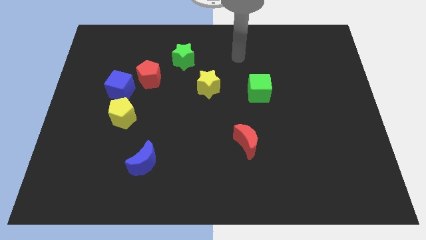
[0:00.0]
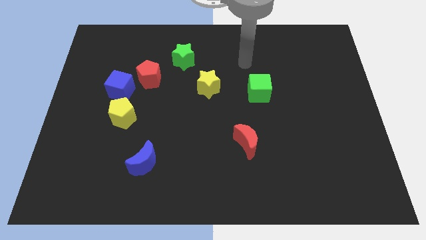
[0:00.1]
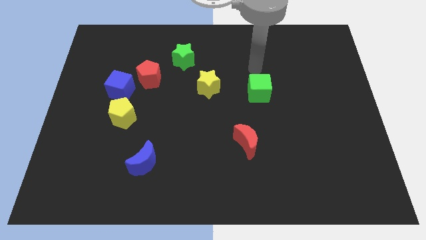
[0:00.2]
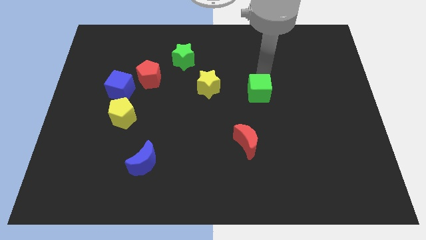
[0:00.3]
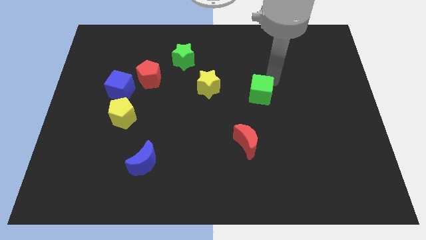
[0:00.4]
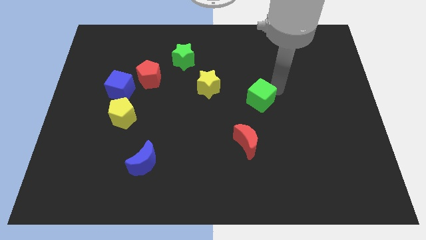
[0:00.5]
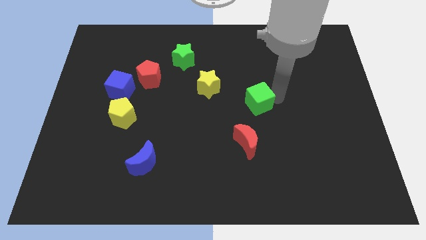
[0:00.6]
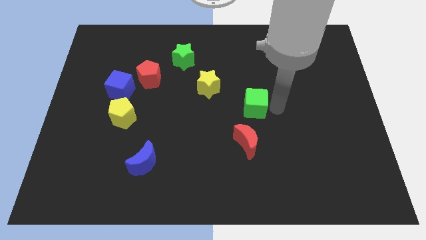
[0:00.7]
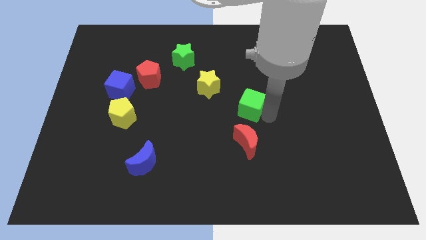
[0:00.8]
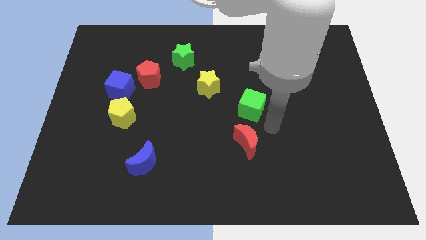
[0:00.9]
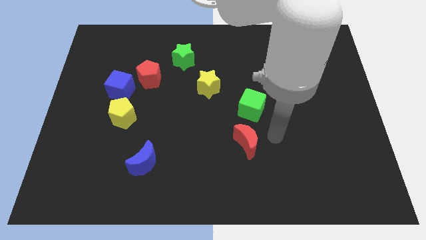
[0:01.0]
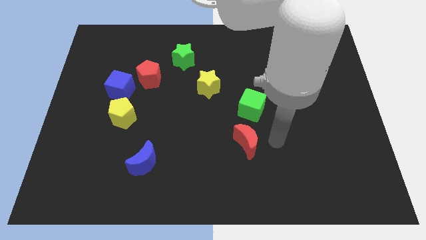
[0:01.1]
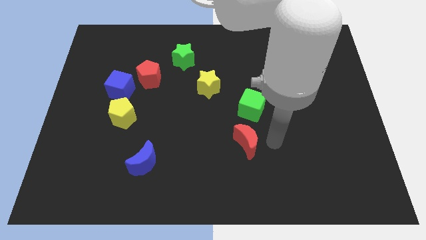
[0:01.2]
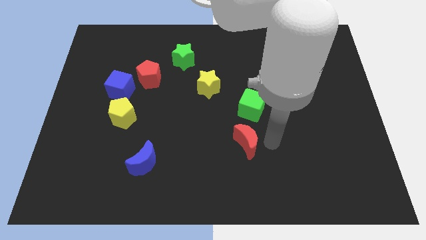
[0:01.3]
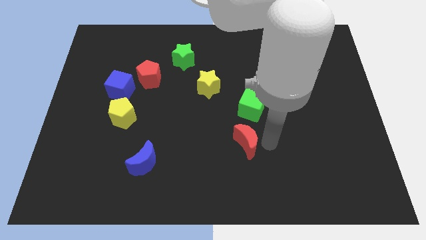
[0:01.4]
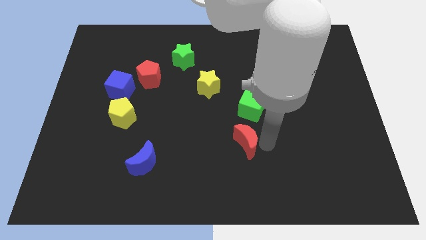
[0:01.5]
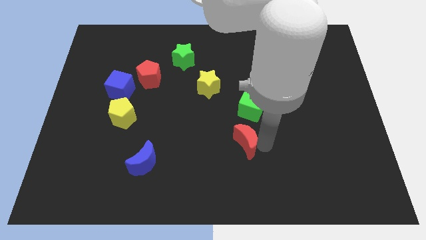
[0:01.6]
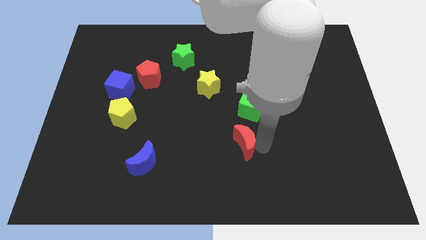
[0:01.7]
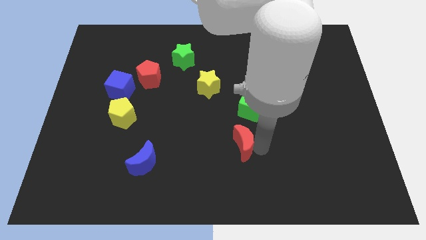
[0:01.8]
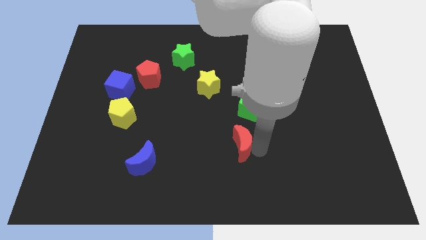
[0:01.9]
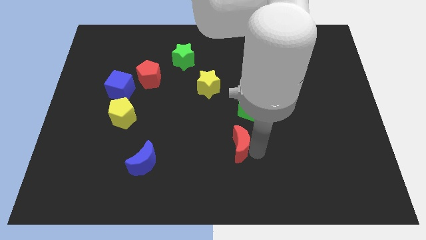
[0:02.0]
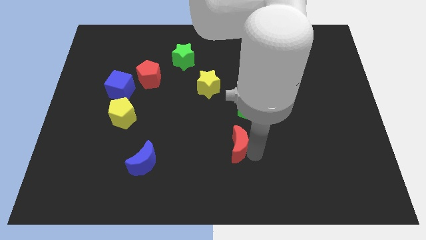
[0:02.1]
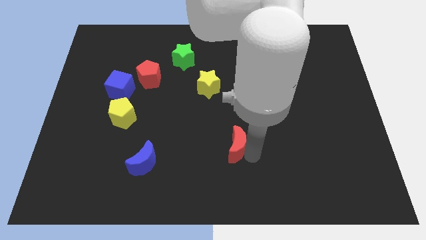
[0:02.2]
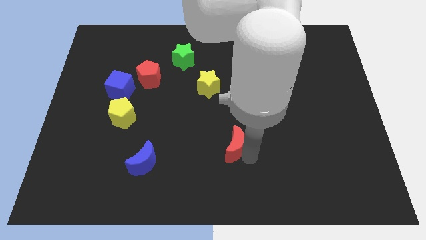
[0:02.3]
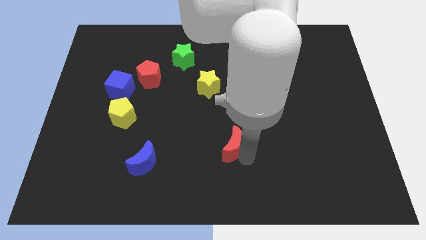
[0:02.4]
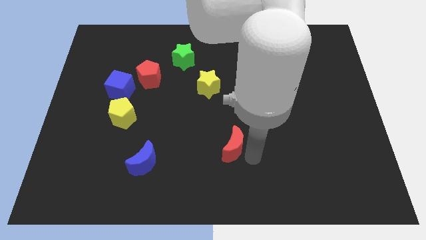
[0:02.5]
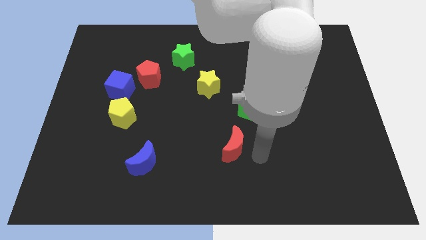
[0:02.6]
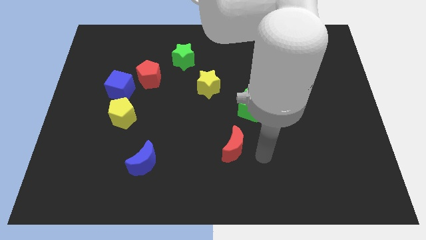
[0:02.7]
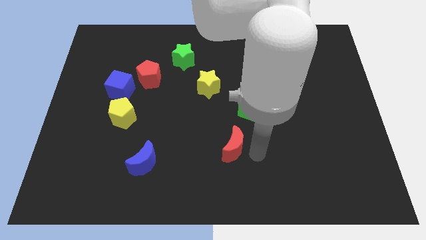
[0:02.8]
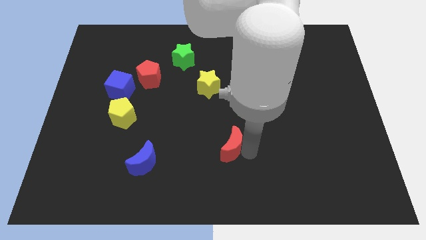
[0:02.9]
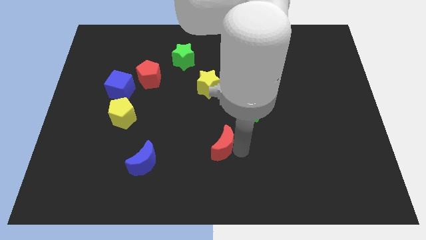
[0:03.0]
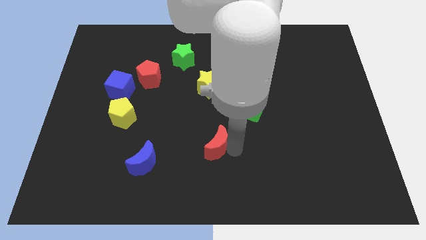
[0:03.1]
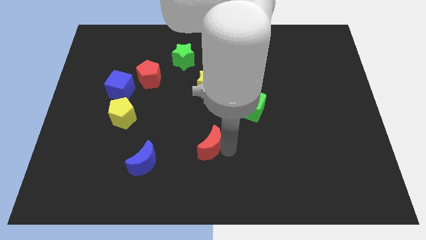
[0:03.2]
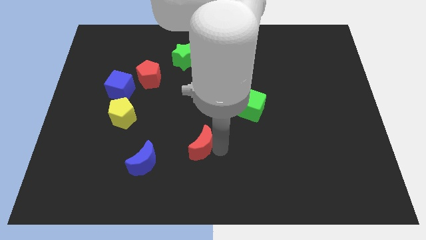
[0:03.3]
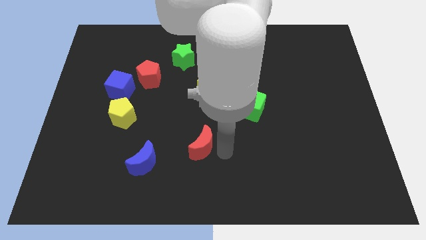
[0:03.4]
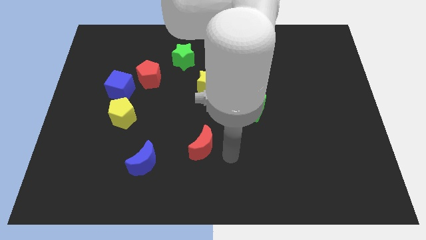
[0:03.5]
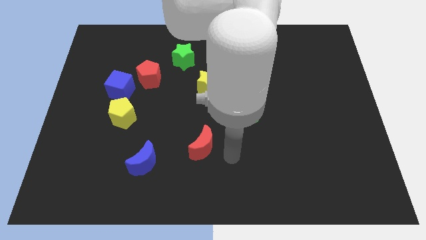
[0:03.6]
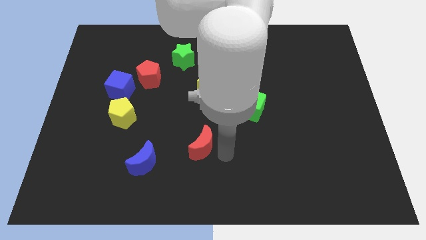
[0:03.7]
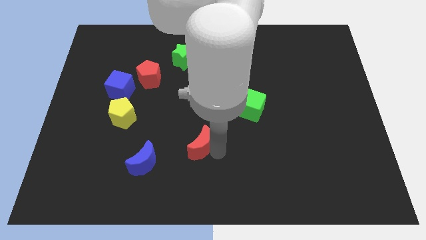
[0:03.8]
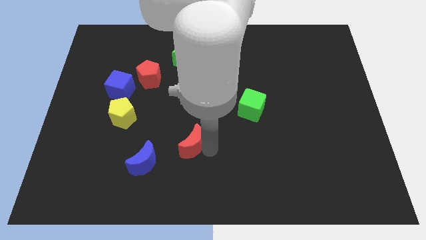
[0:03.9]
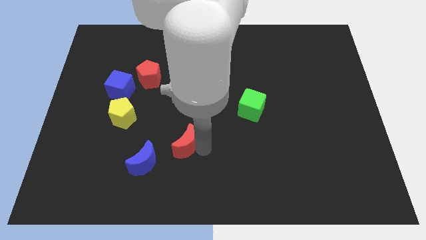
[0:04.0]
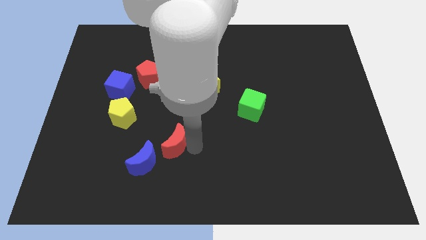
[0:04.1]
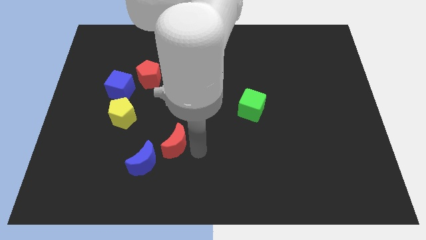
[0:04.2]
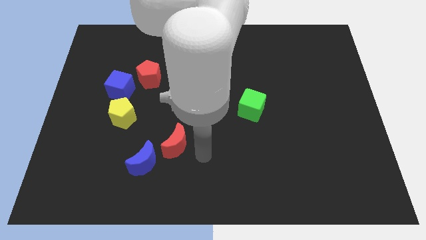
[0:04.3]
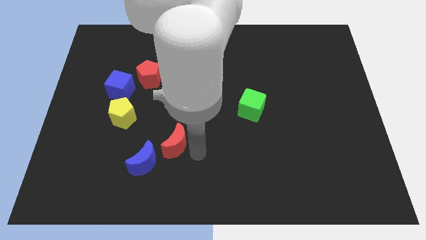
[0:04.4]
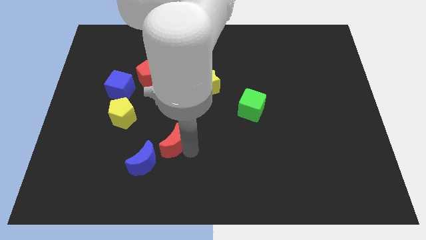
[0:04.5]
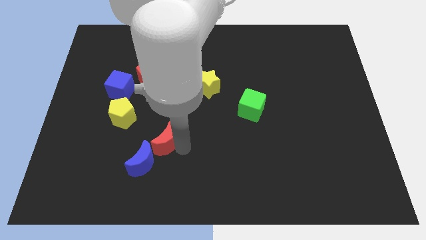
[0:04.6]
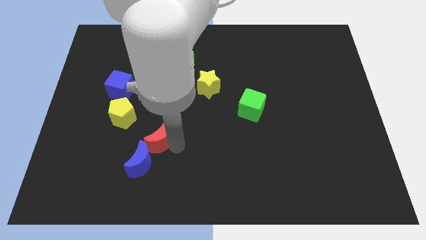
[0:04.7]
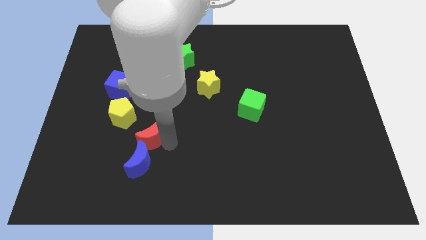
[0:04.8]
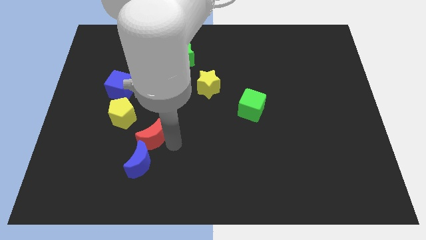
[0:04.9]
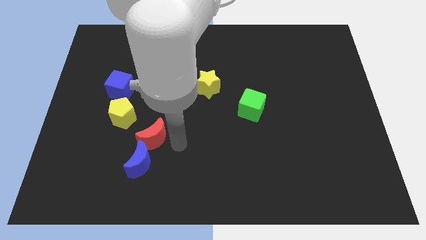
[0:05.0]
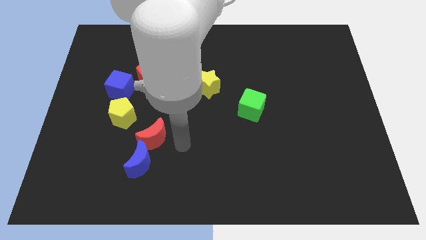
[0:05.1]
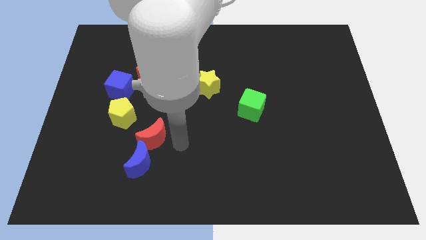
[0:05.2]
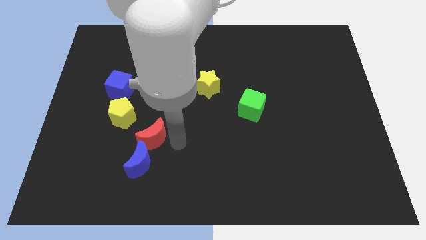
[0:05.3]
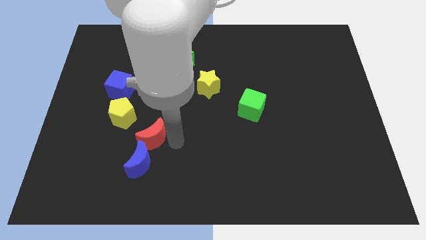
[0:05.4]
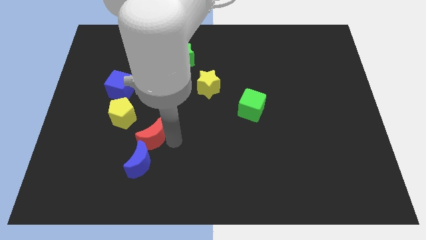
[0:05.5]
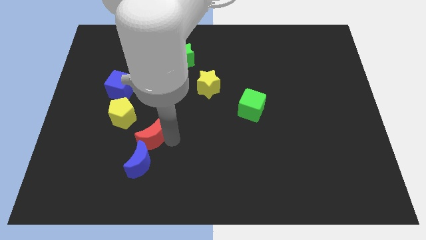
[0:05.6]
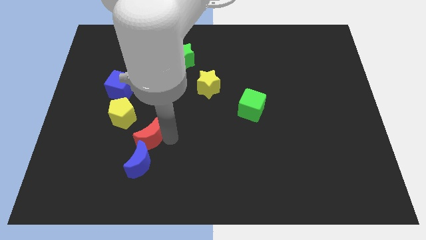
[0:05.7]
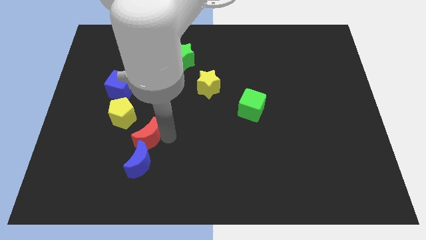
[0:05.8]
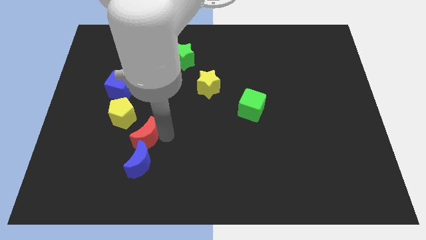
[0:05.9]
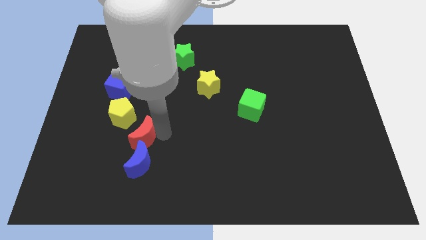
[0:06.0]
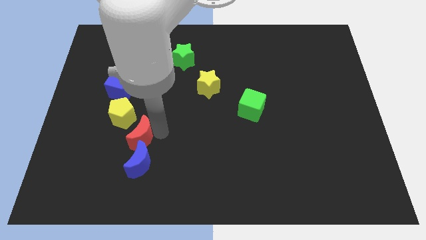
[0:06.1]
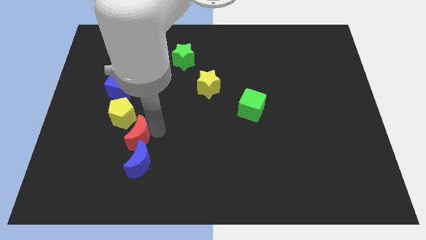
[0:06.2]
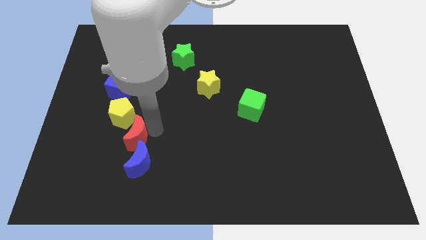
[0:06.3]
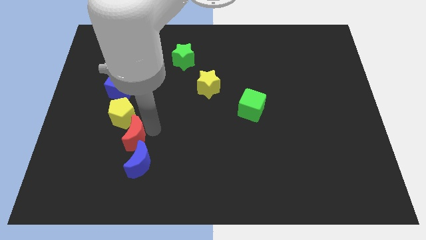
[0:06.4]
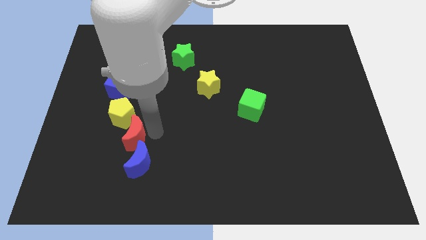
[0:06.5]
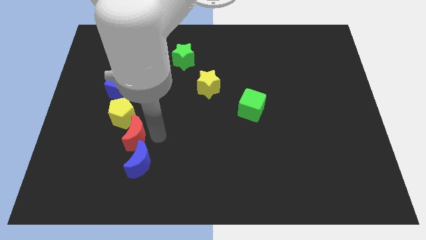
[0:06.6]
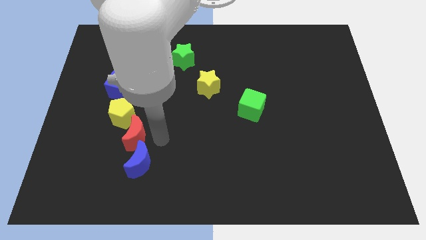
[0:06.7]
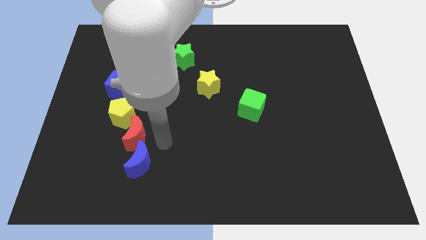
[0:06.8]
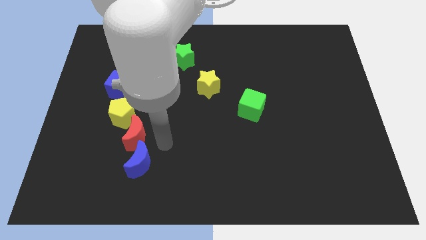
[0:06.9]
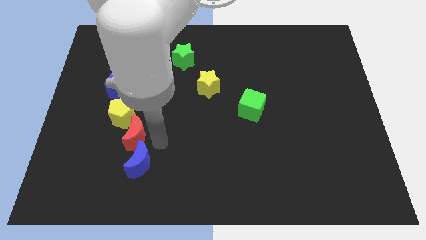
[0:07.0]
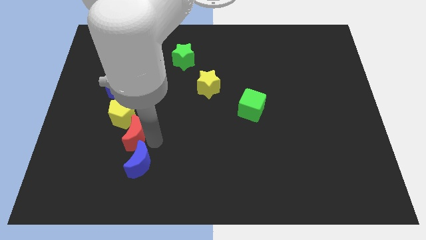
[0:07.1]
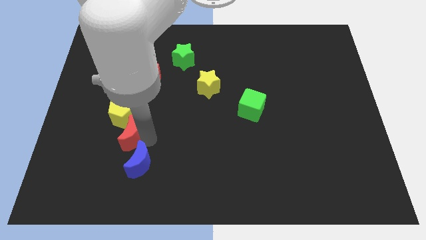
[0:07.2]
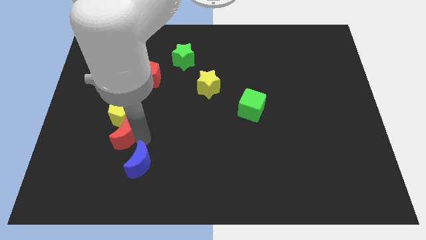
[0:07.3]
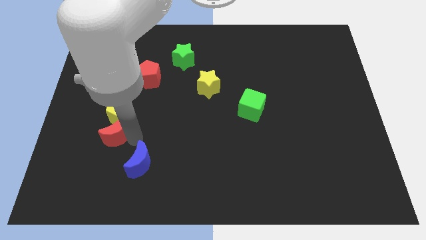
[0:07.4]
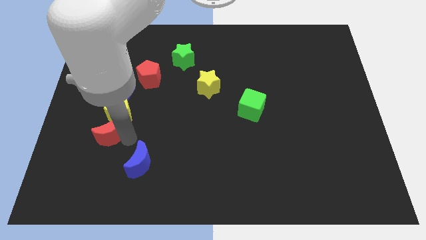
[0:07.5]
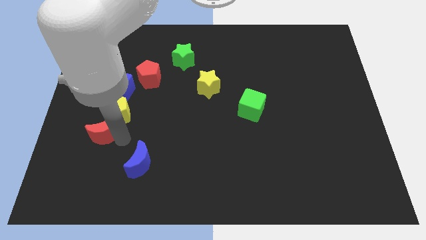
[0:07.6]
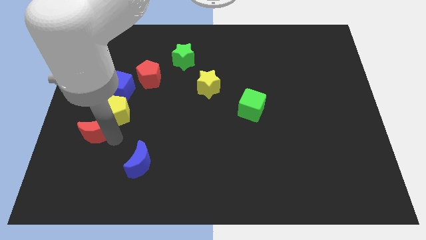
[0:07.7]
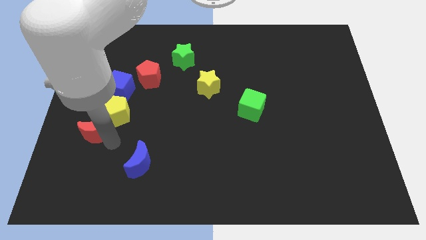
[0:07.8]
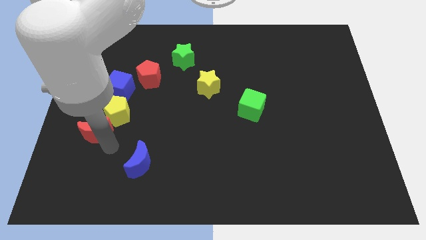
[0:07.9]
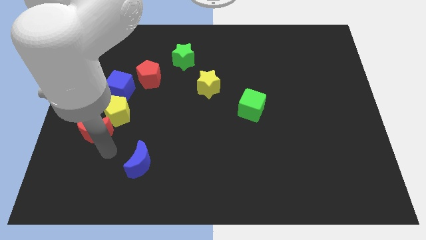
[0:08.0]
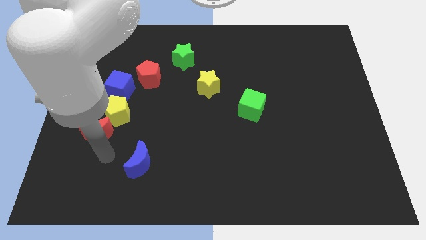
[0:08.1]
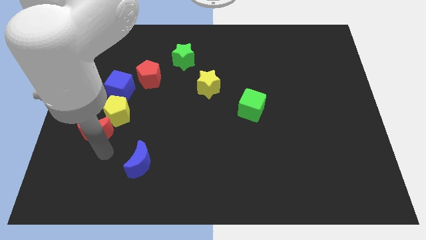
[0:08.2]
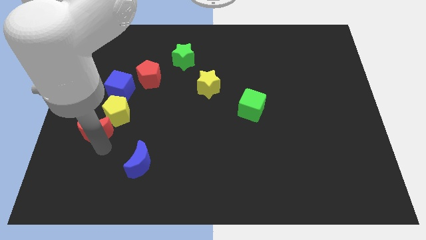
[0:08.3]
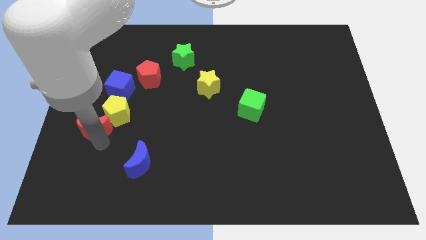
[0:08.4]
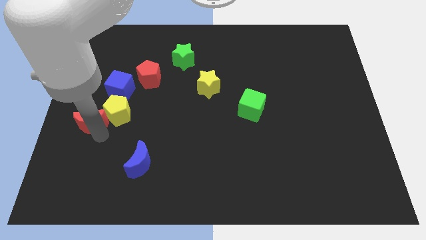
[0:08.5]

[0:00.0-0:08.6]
move the red moon to the left side
